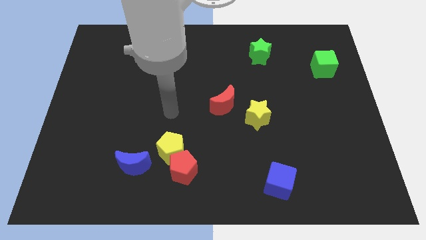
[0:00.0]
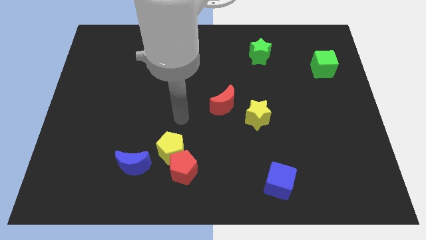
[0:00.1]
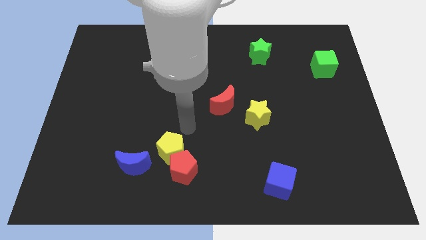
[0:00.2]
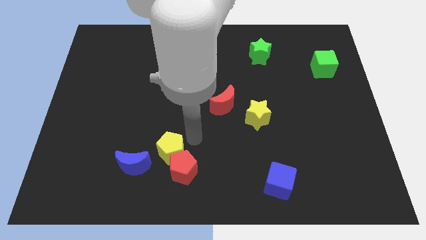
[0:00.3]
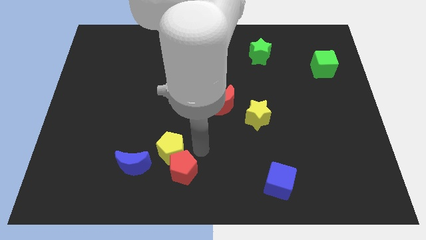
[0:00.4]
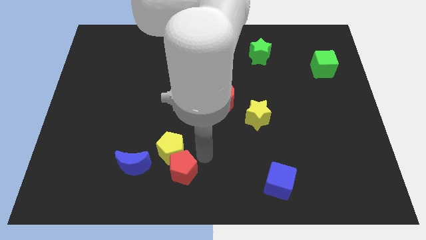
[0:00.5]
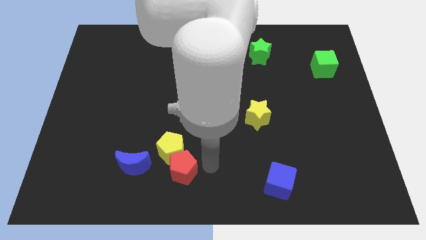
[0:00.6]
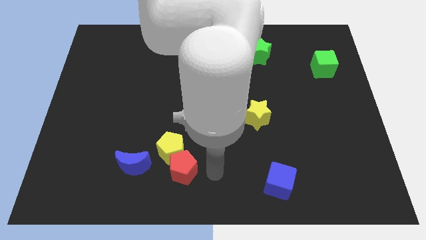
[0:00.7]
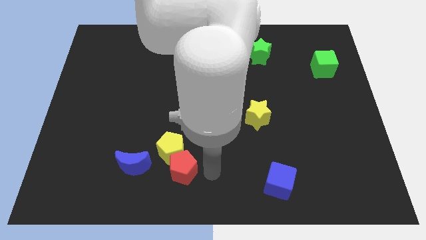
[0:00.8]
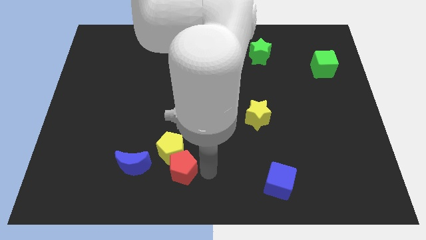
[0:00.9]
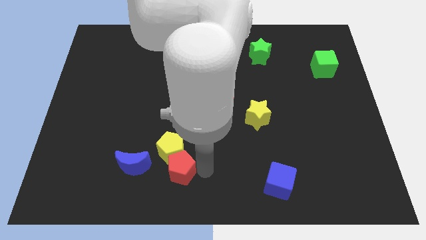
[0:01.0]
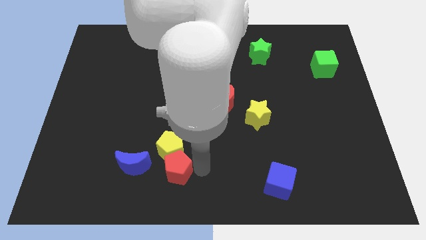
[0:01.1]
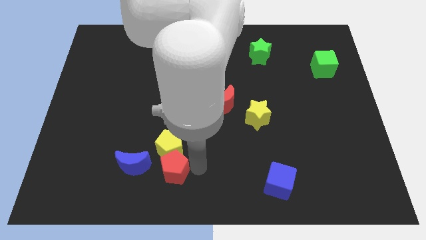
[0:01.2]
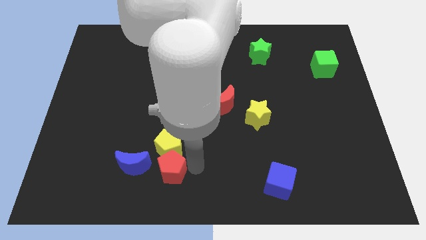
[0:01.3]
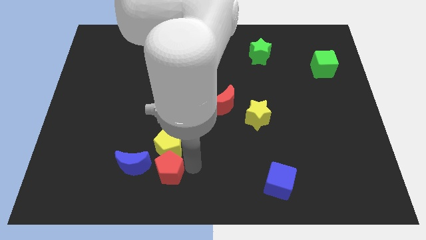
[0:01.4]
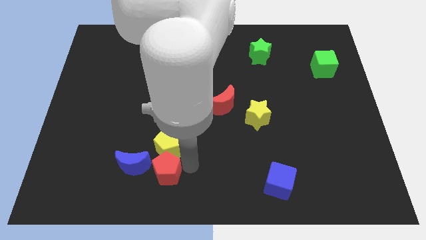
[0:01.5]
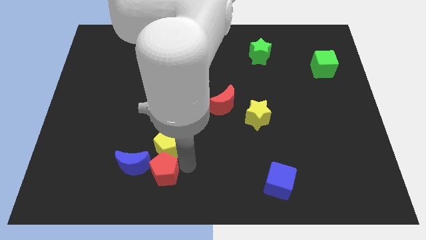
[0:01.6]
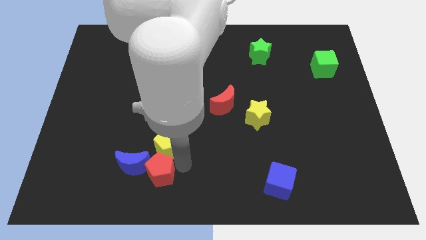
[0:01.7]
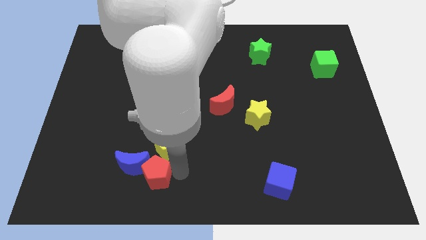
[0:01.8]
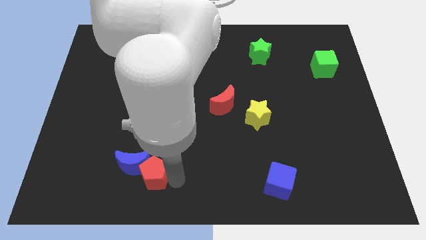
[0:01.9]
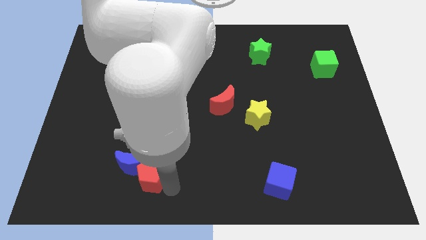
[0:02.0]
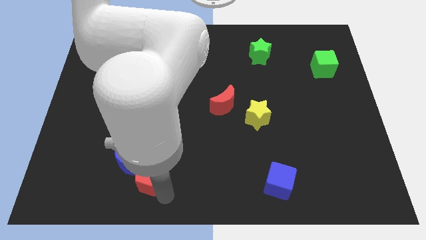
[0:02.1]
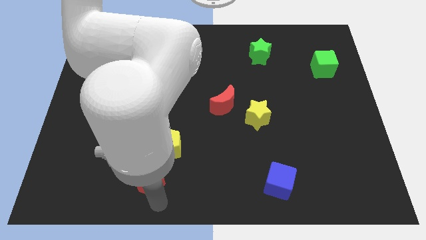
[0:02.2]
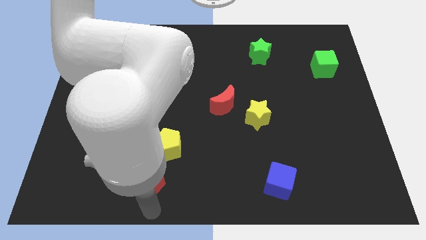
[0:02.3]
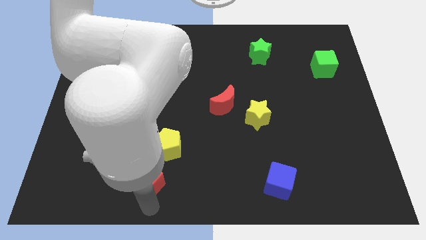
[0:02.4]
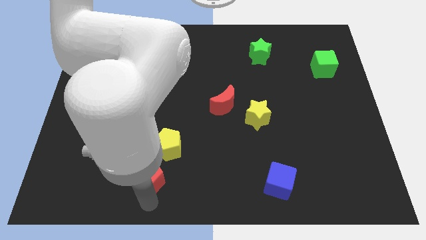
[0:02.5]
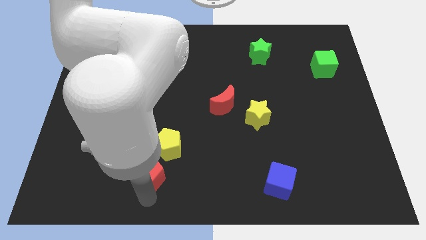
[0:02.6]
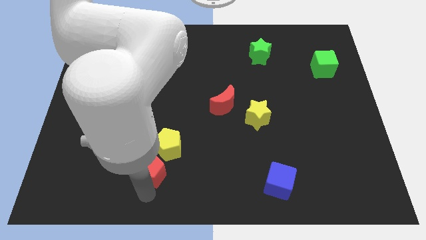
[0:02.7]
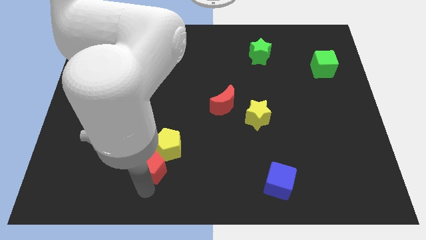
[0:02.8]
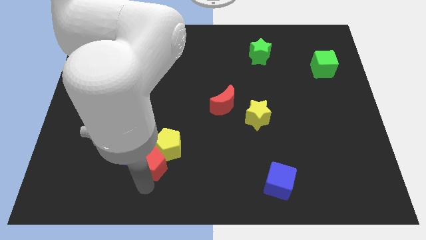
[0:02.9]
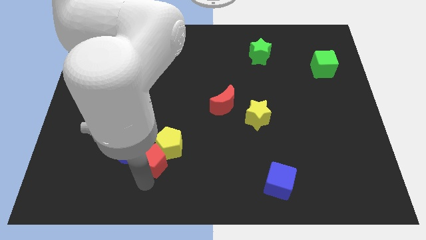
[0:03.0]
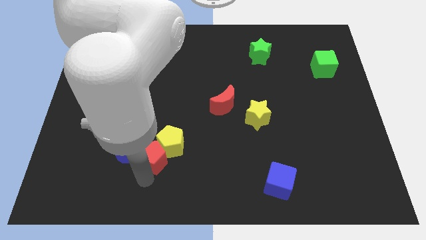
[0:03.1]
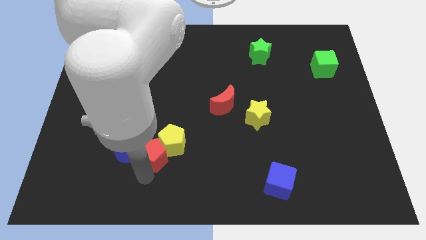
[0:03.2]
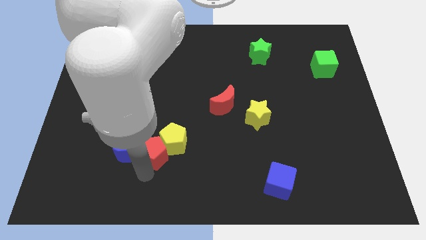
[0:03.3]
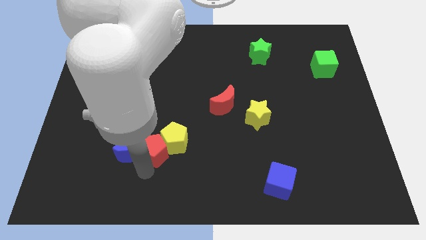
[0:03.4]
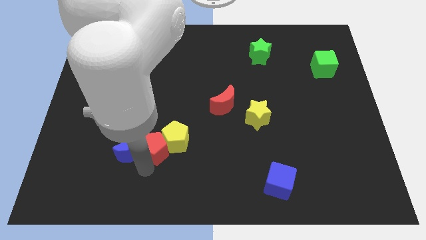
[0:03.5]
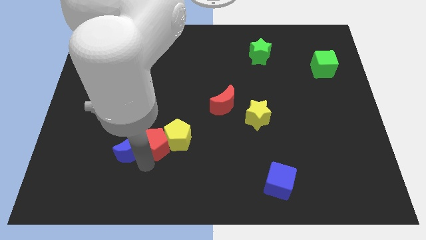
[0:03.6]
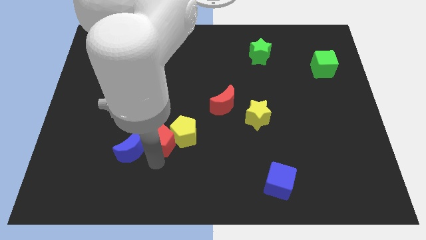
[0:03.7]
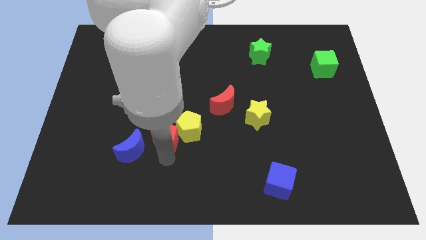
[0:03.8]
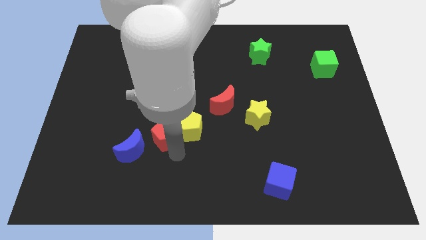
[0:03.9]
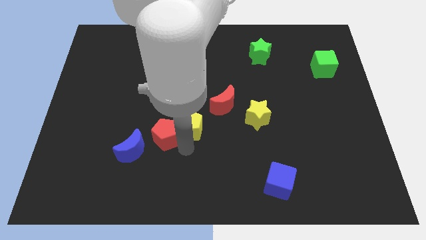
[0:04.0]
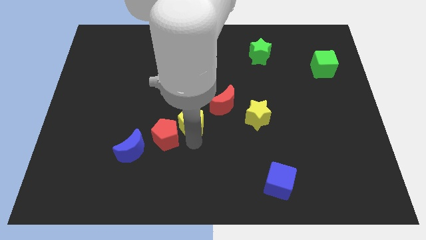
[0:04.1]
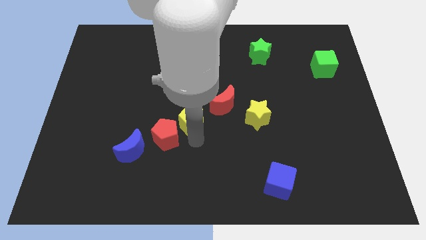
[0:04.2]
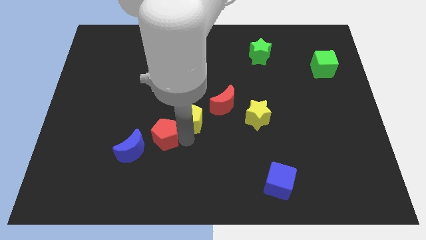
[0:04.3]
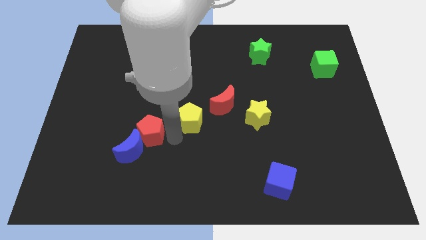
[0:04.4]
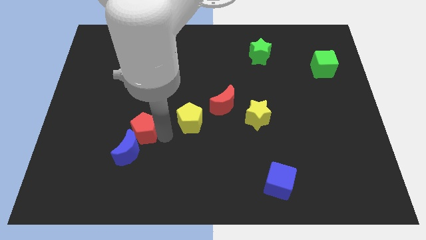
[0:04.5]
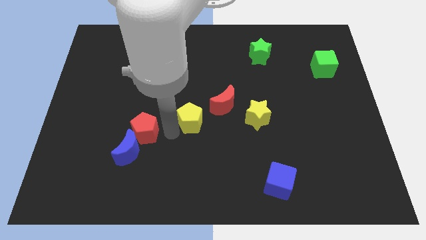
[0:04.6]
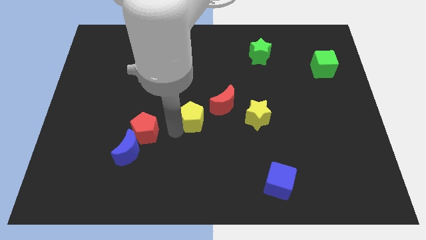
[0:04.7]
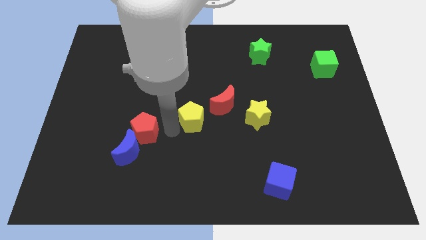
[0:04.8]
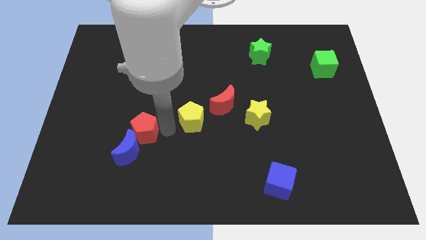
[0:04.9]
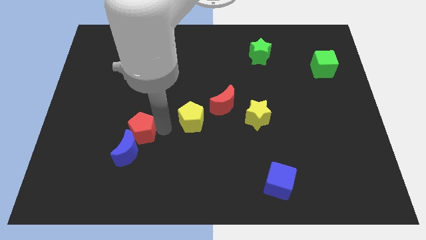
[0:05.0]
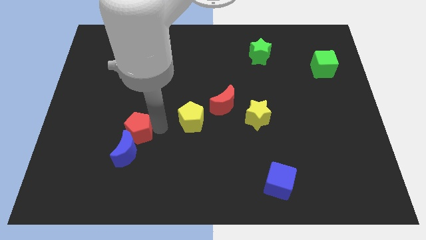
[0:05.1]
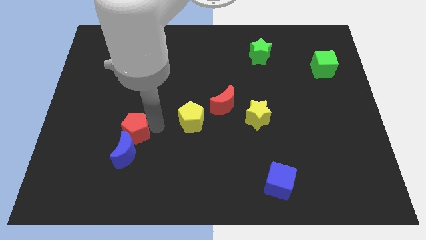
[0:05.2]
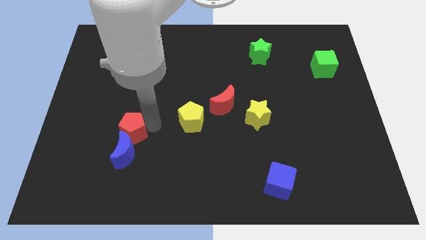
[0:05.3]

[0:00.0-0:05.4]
push the red pentagon to the top left side of the blue moon

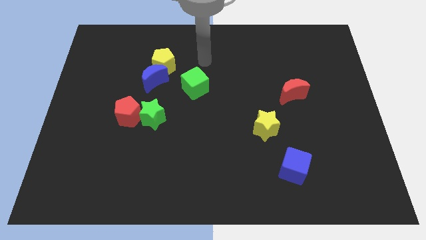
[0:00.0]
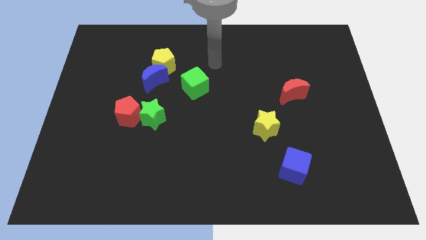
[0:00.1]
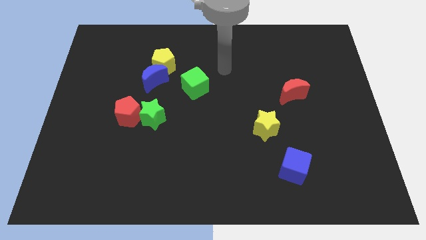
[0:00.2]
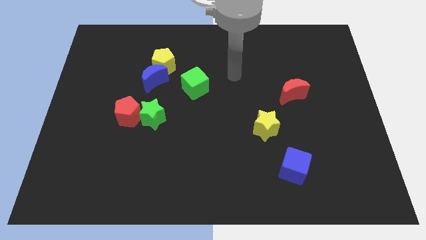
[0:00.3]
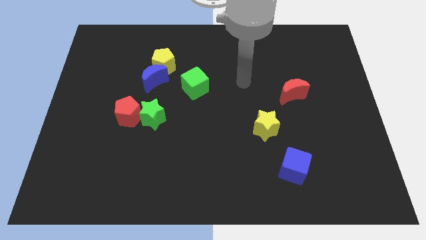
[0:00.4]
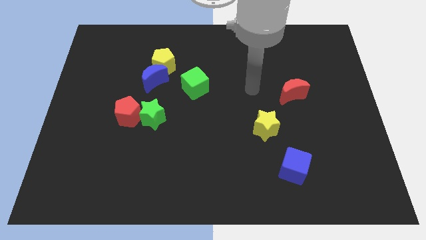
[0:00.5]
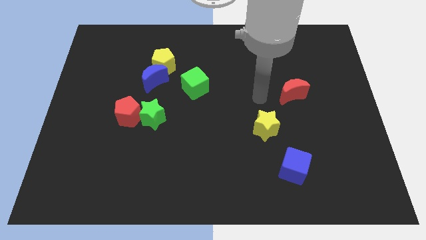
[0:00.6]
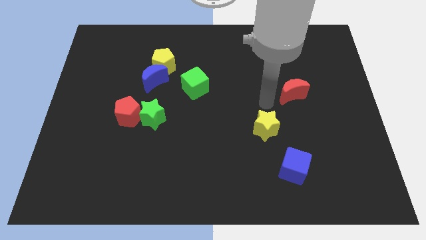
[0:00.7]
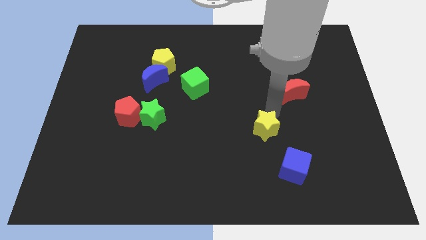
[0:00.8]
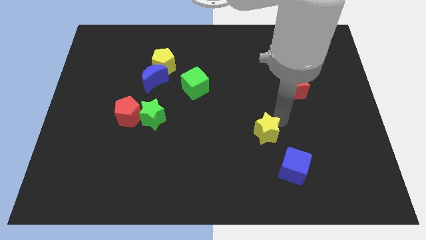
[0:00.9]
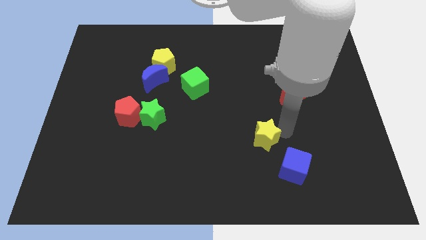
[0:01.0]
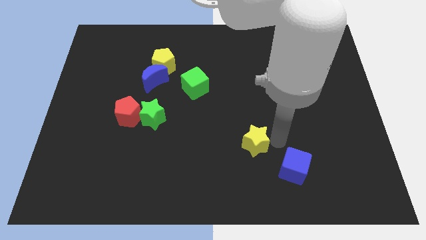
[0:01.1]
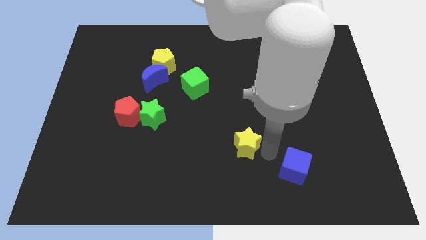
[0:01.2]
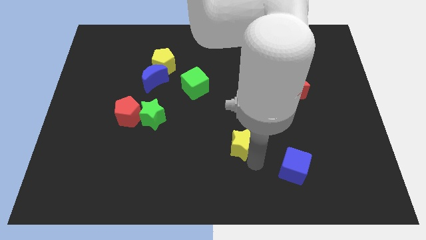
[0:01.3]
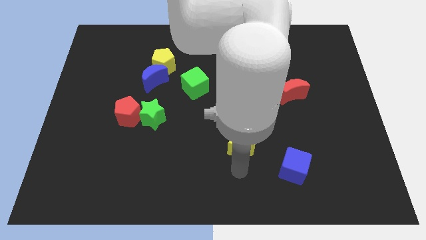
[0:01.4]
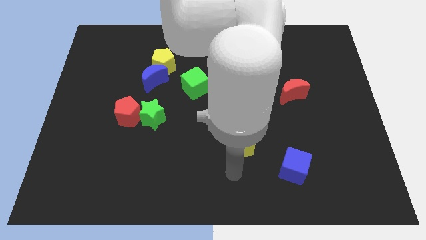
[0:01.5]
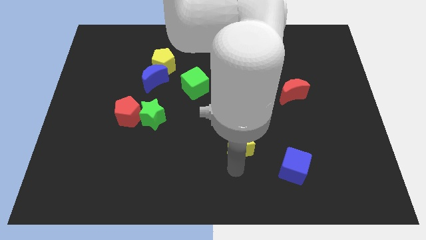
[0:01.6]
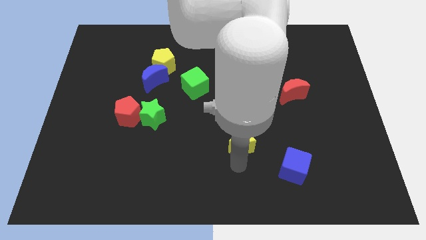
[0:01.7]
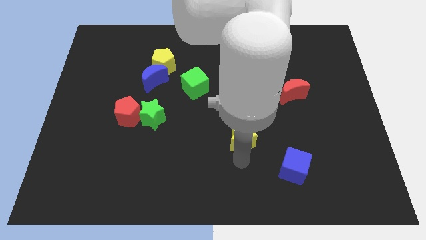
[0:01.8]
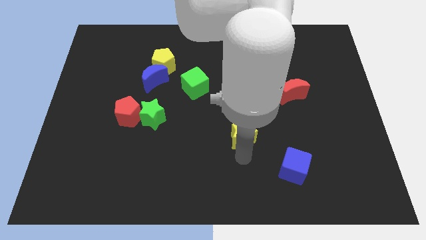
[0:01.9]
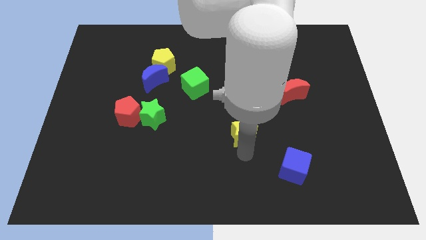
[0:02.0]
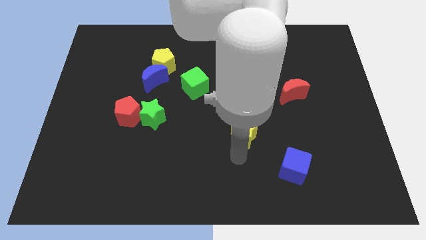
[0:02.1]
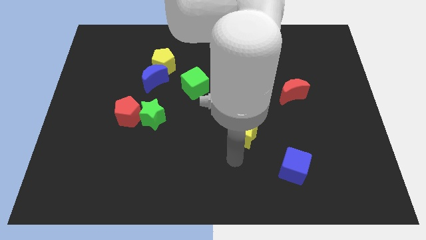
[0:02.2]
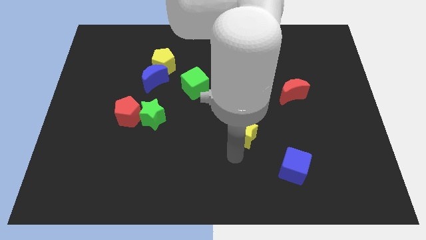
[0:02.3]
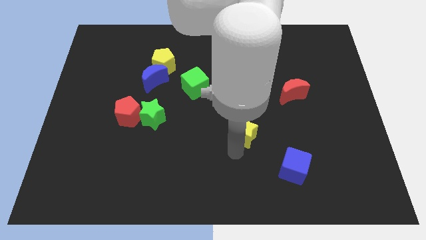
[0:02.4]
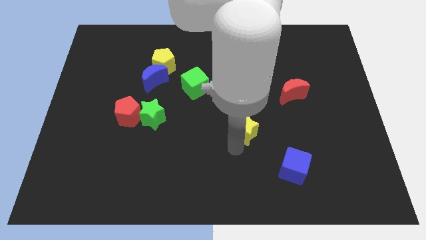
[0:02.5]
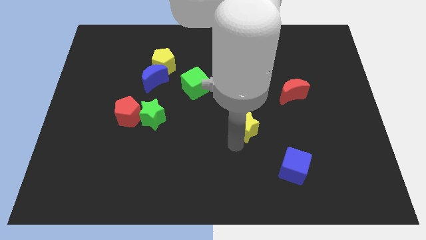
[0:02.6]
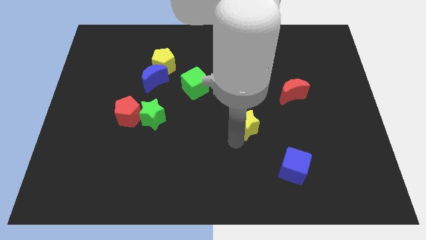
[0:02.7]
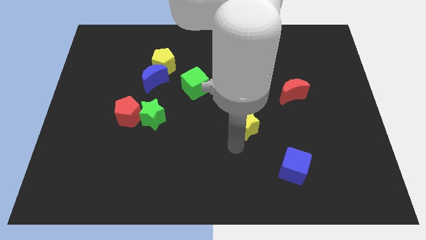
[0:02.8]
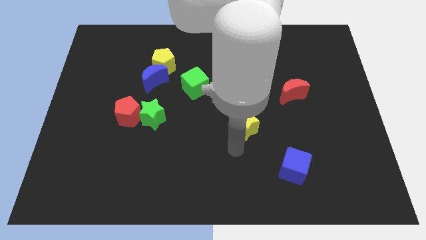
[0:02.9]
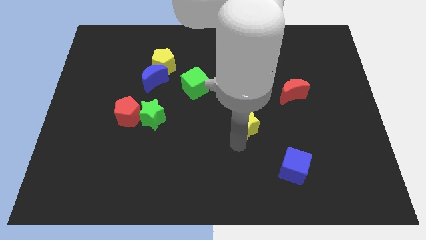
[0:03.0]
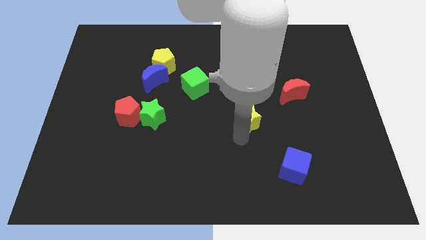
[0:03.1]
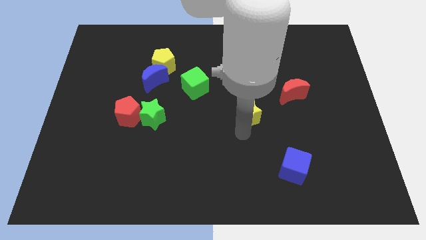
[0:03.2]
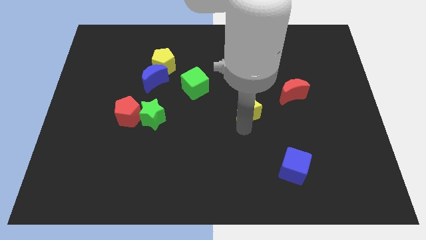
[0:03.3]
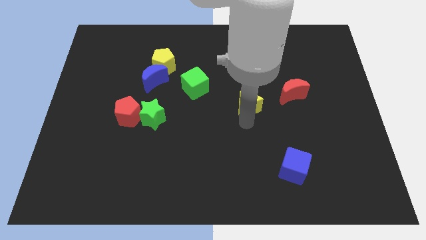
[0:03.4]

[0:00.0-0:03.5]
push the yellow star to the left of the red moon
